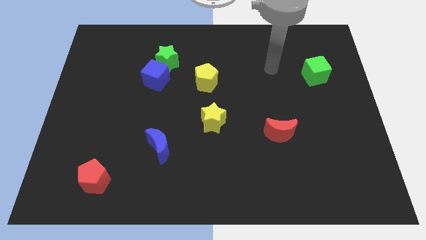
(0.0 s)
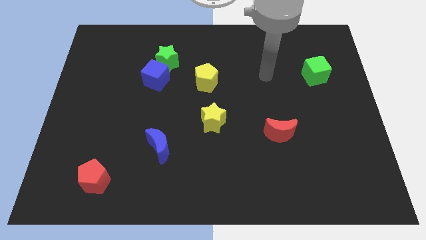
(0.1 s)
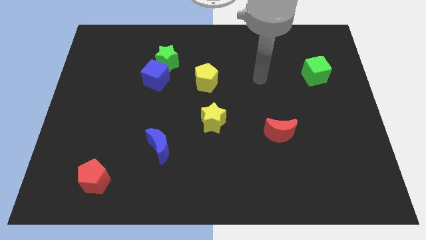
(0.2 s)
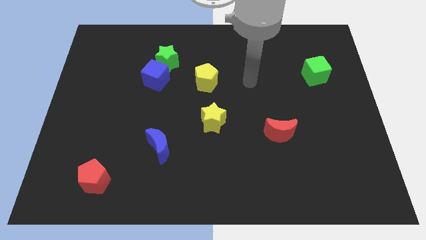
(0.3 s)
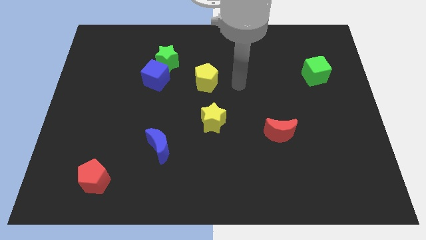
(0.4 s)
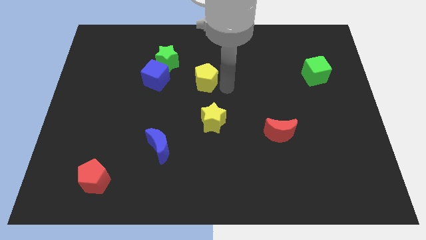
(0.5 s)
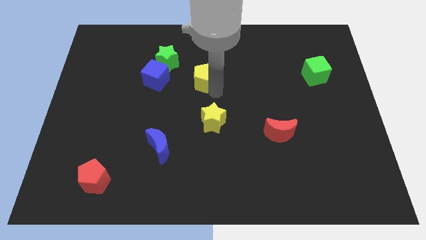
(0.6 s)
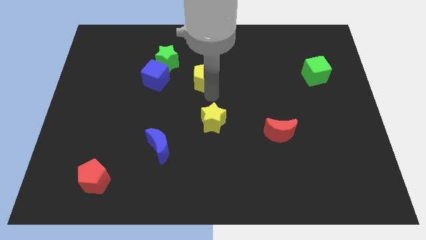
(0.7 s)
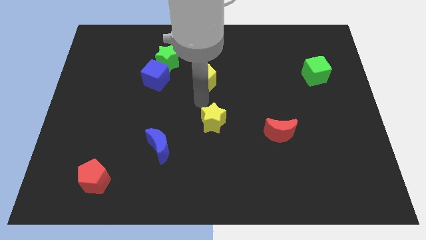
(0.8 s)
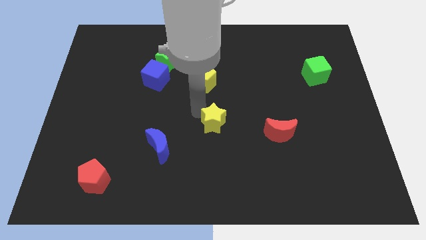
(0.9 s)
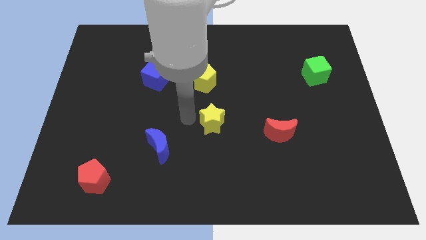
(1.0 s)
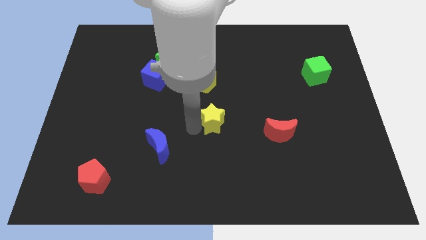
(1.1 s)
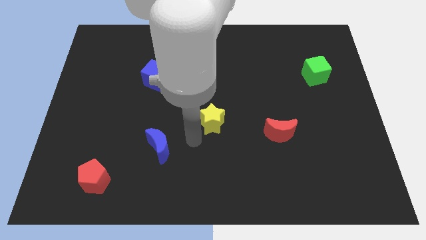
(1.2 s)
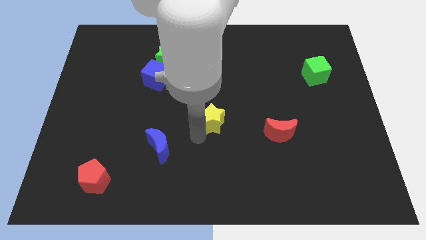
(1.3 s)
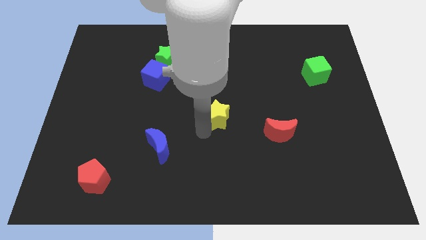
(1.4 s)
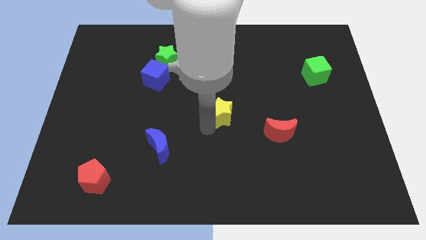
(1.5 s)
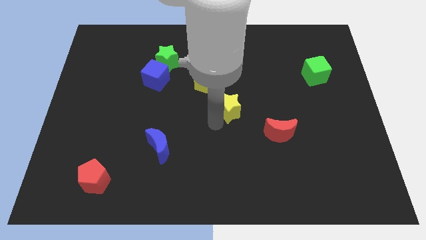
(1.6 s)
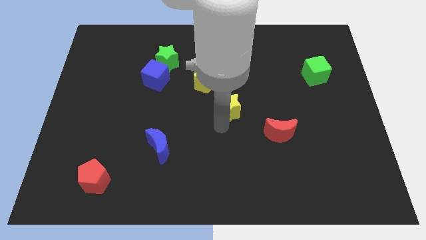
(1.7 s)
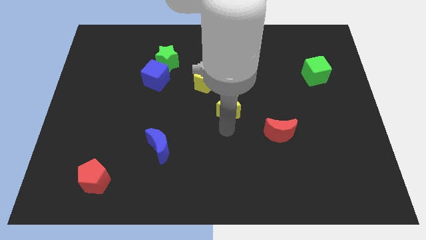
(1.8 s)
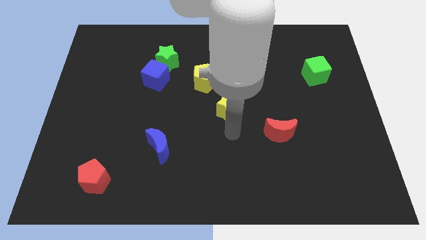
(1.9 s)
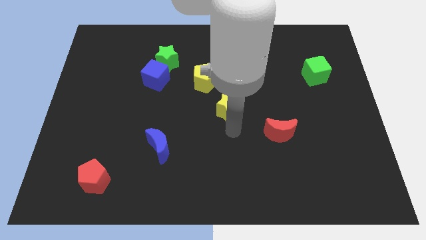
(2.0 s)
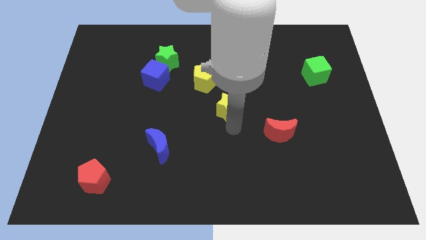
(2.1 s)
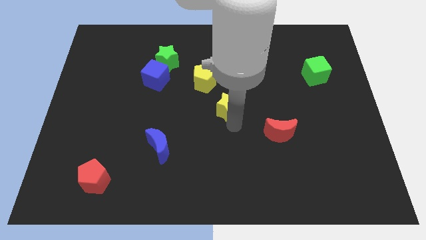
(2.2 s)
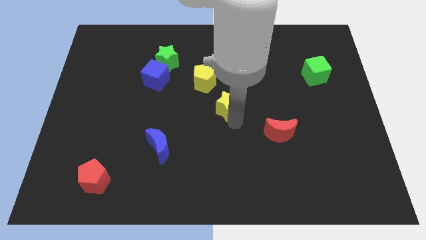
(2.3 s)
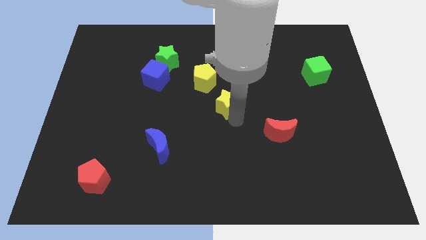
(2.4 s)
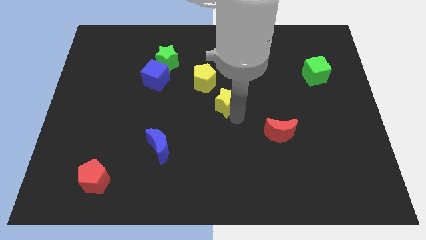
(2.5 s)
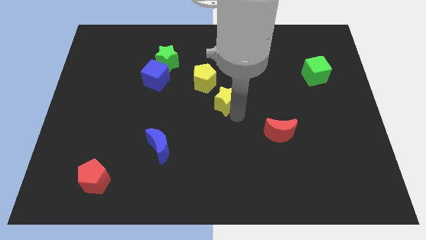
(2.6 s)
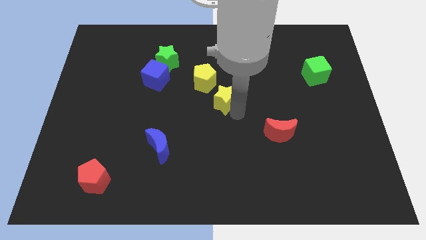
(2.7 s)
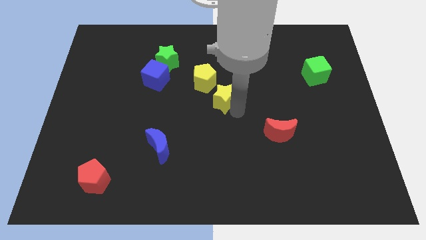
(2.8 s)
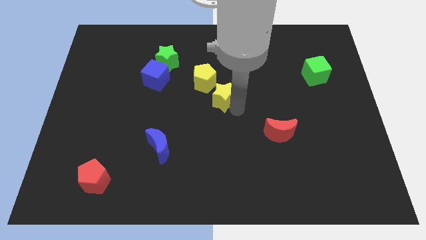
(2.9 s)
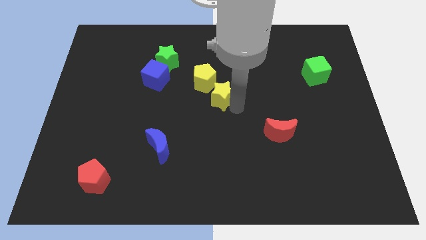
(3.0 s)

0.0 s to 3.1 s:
slightly slide the yellow star upwards

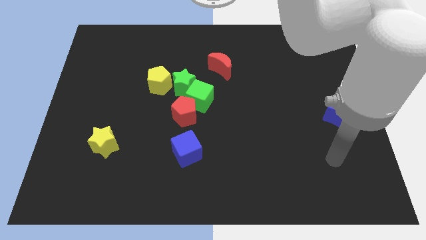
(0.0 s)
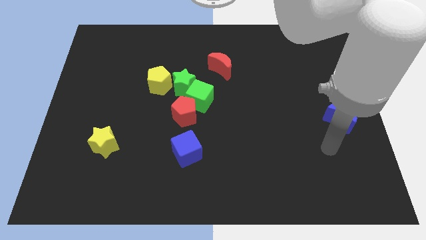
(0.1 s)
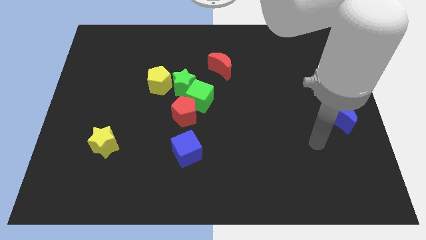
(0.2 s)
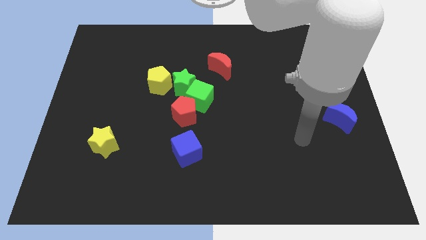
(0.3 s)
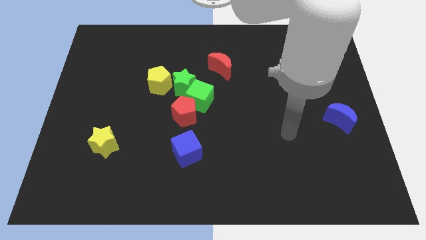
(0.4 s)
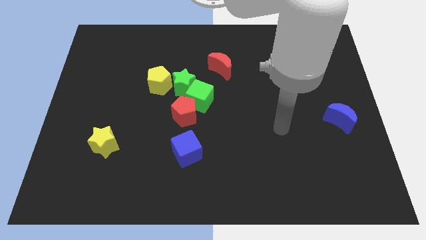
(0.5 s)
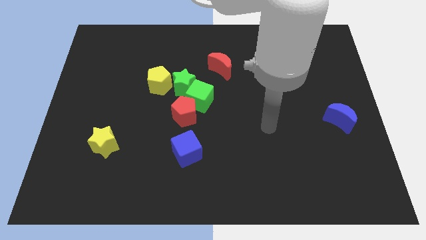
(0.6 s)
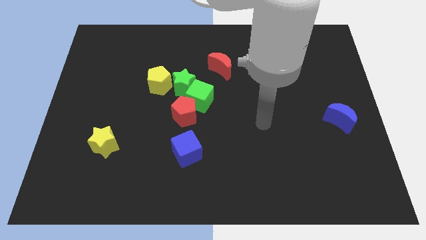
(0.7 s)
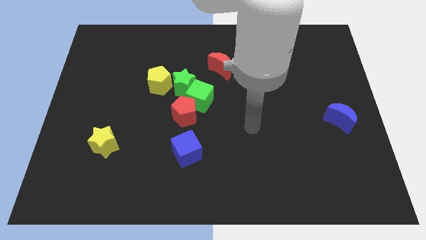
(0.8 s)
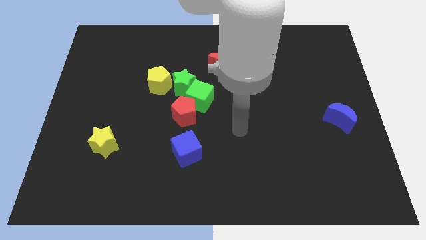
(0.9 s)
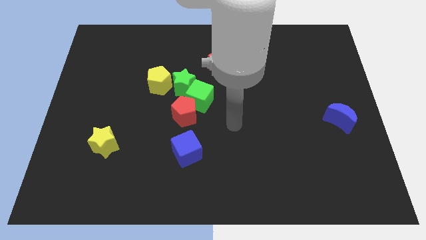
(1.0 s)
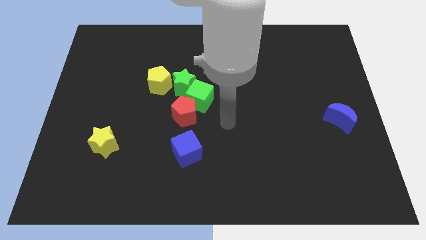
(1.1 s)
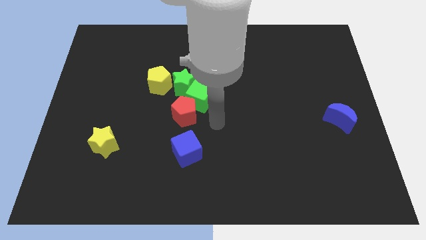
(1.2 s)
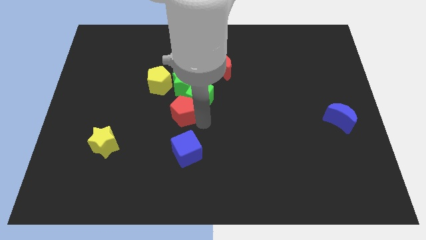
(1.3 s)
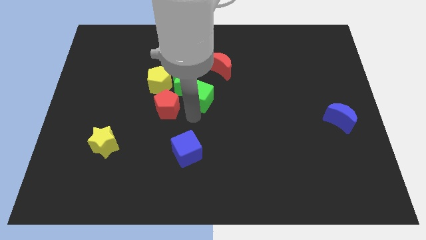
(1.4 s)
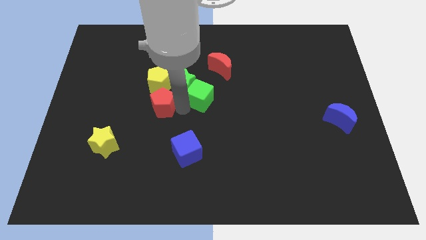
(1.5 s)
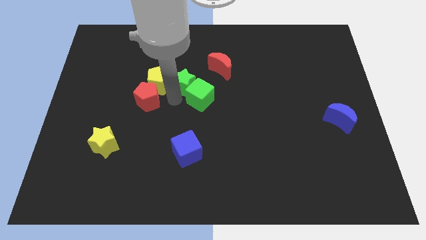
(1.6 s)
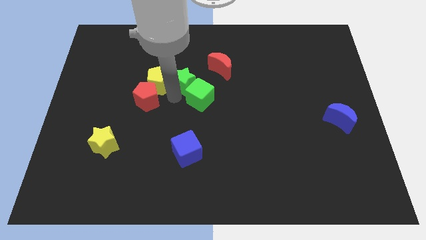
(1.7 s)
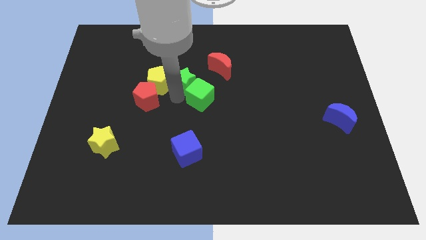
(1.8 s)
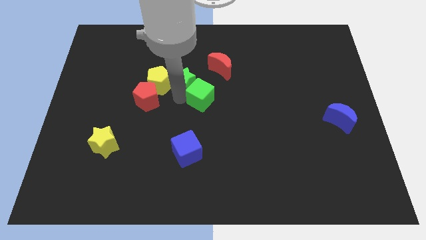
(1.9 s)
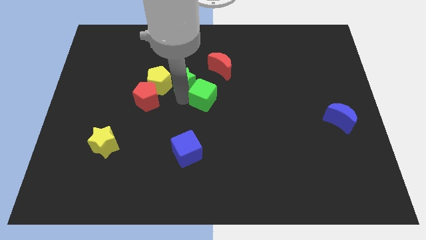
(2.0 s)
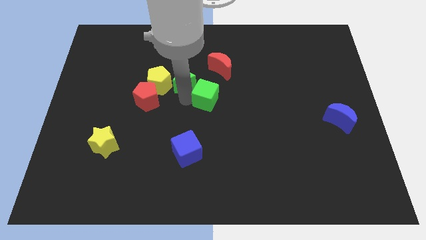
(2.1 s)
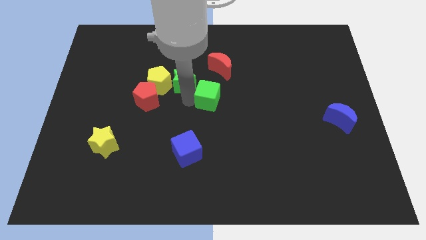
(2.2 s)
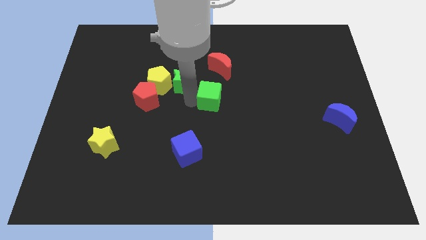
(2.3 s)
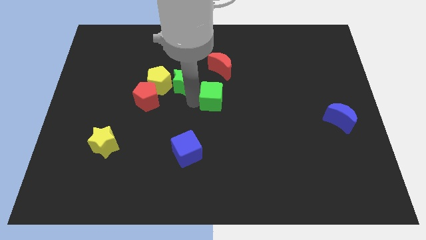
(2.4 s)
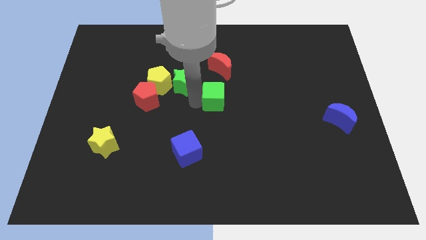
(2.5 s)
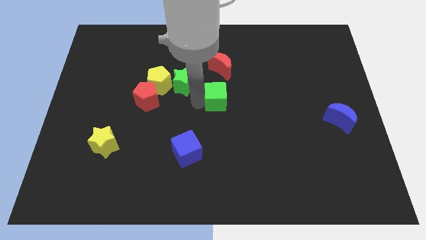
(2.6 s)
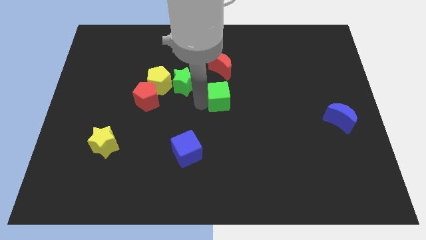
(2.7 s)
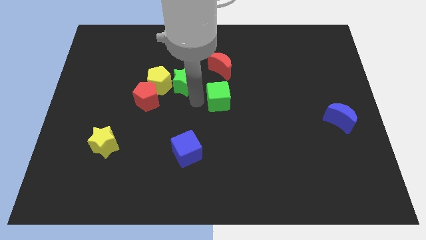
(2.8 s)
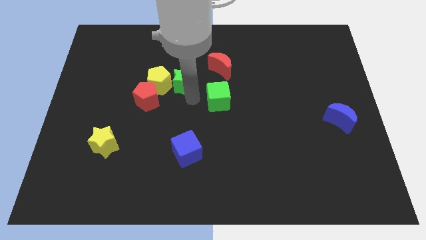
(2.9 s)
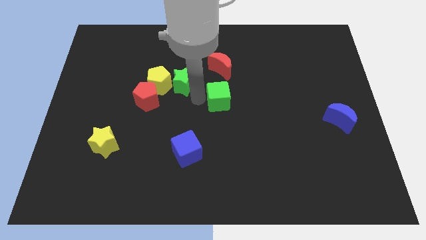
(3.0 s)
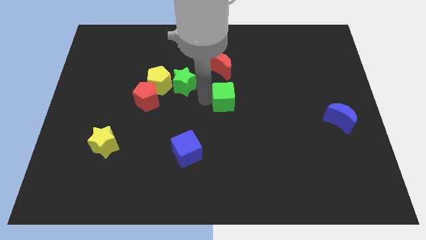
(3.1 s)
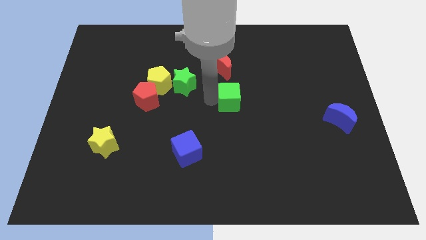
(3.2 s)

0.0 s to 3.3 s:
move the green cube somewhat to the right

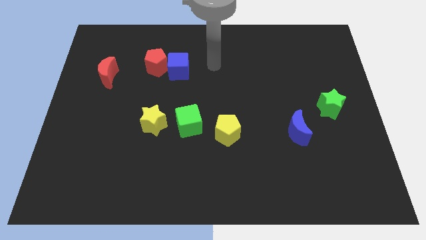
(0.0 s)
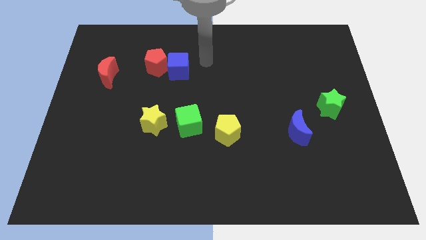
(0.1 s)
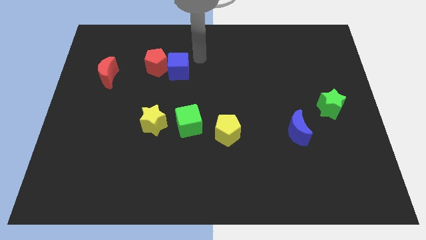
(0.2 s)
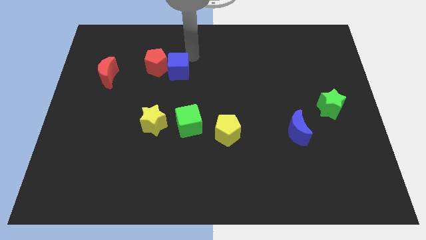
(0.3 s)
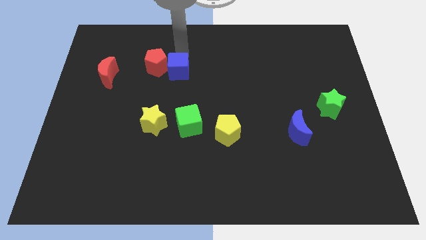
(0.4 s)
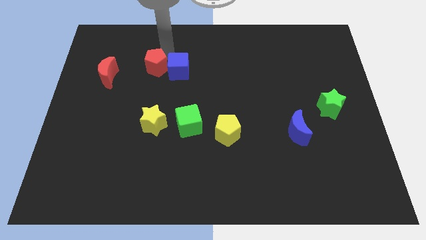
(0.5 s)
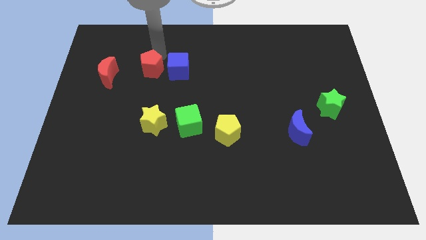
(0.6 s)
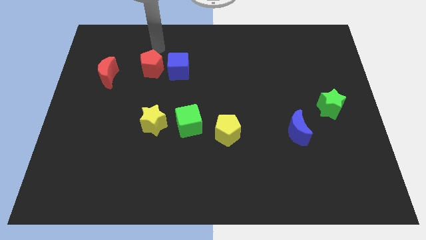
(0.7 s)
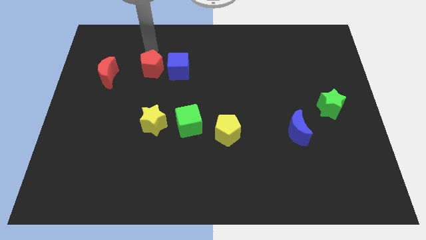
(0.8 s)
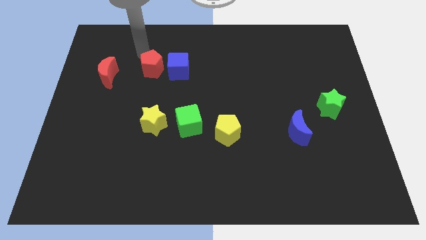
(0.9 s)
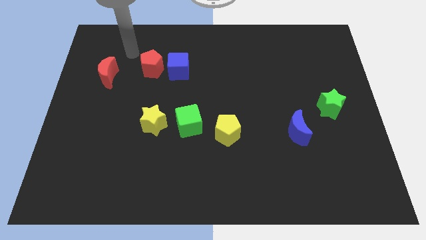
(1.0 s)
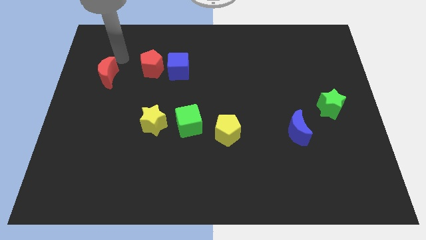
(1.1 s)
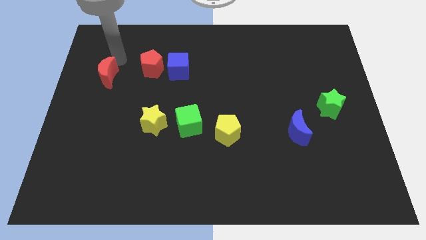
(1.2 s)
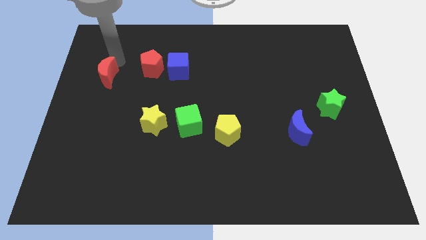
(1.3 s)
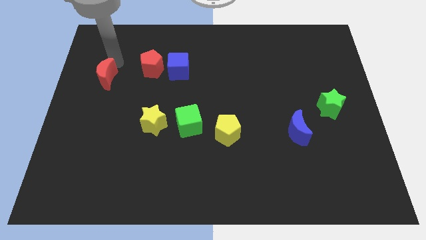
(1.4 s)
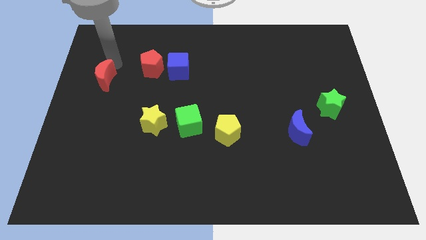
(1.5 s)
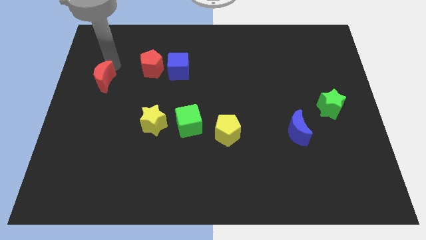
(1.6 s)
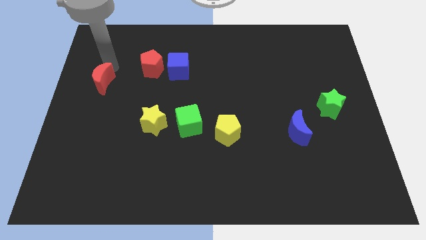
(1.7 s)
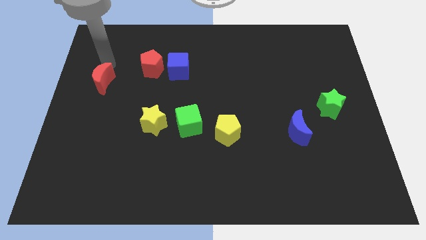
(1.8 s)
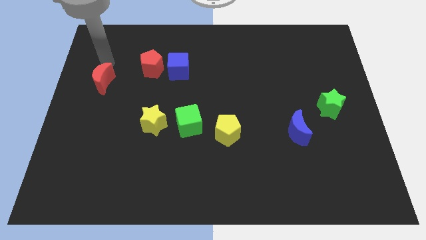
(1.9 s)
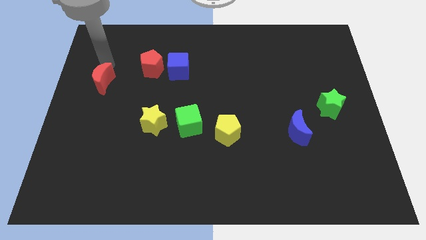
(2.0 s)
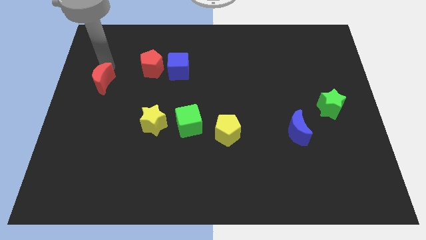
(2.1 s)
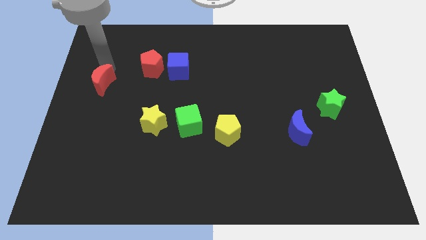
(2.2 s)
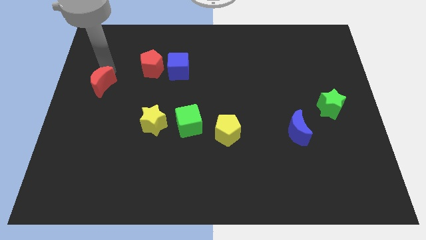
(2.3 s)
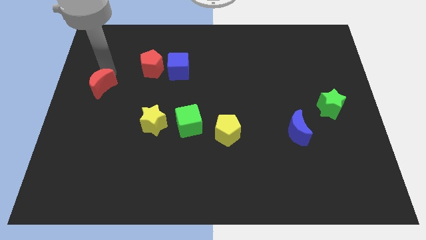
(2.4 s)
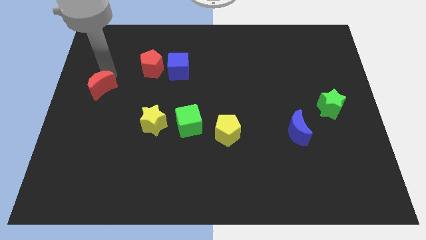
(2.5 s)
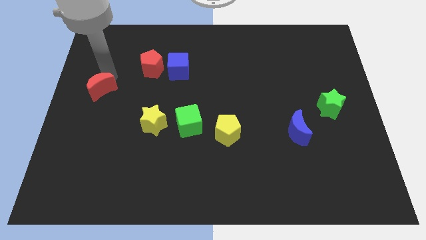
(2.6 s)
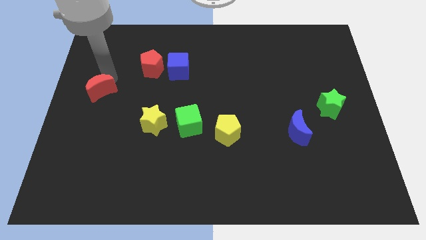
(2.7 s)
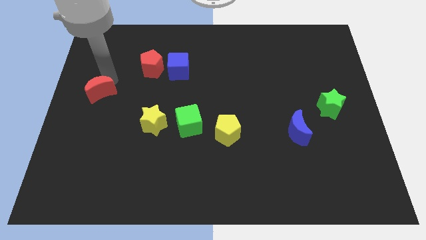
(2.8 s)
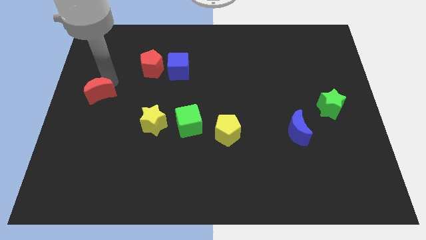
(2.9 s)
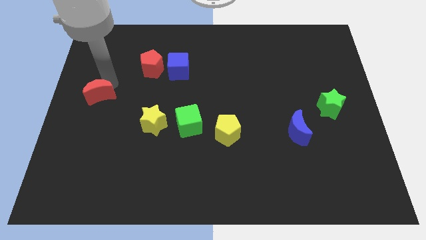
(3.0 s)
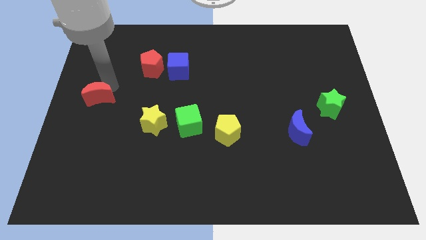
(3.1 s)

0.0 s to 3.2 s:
slide the red moon down a little bit
